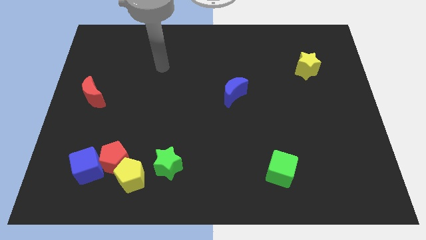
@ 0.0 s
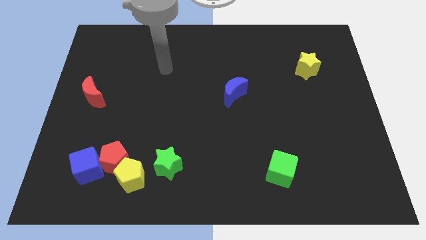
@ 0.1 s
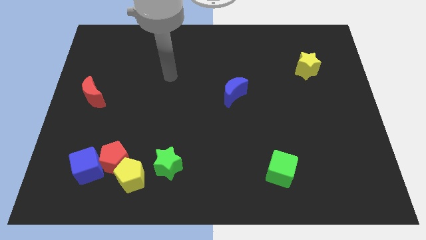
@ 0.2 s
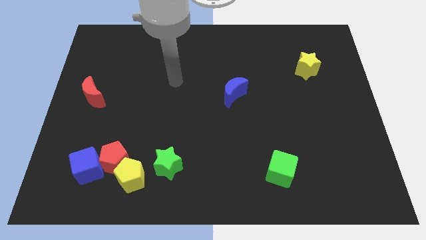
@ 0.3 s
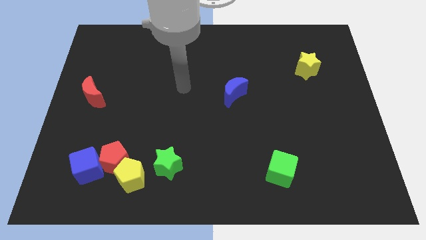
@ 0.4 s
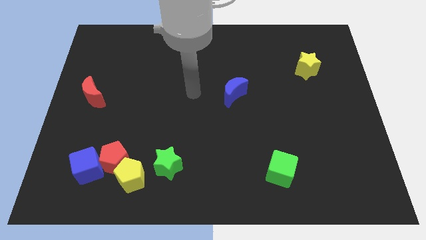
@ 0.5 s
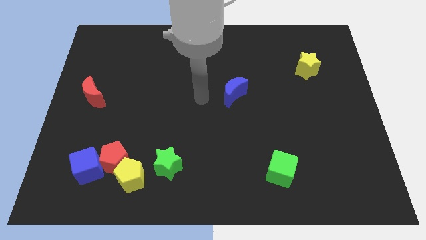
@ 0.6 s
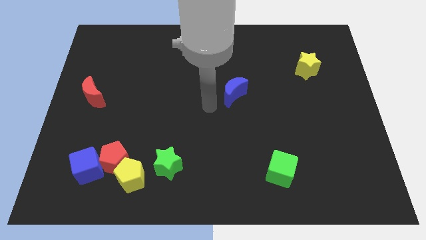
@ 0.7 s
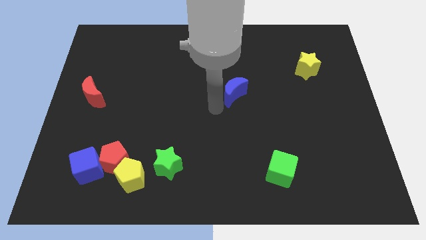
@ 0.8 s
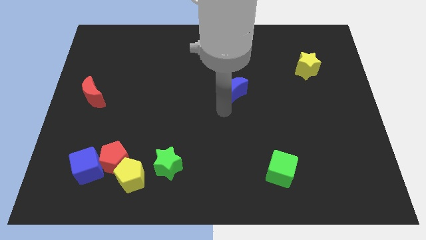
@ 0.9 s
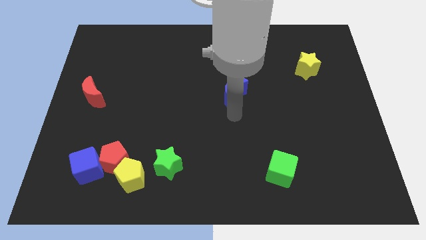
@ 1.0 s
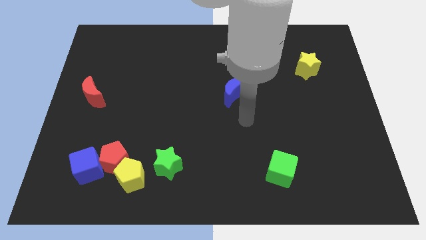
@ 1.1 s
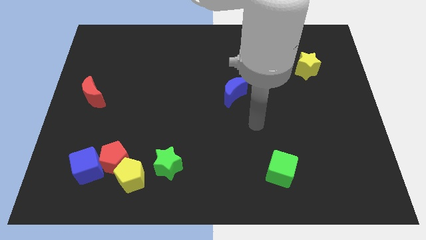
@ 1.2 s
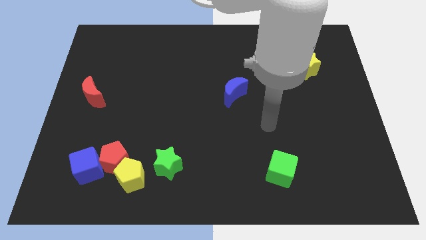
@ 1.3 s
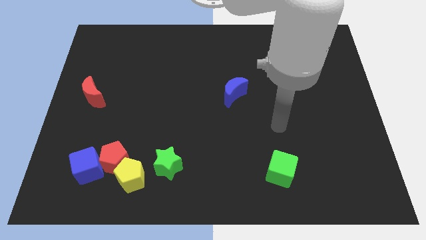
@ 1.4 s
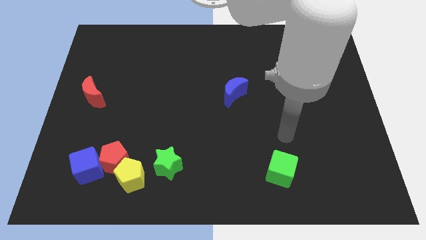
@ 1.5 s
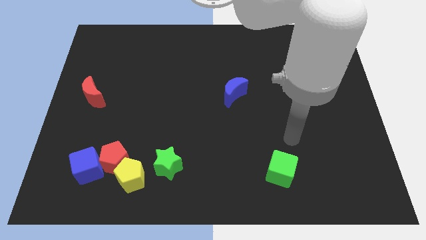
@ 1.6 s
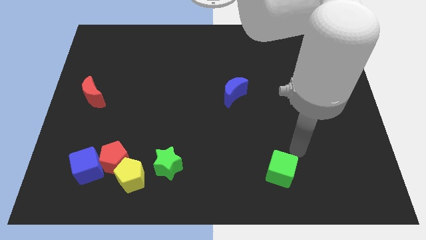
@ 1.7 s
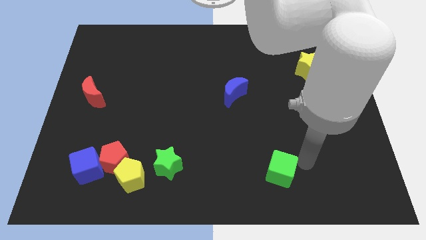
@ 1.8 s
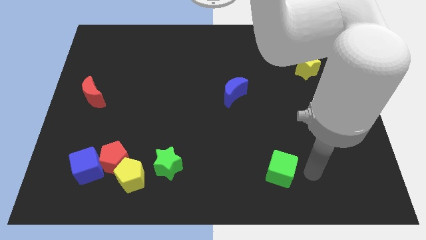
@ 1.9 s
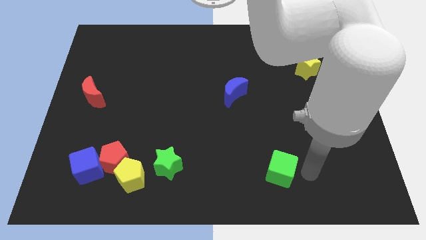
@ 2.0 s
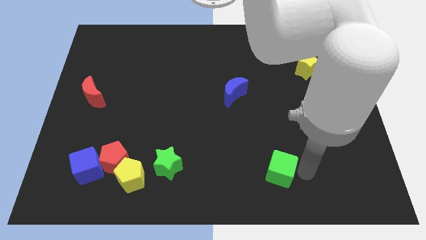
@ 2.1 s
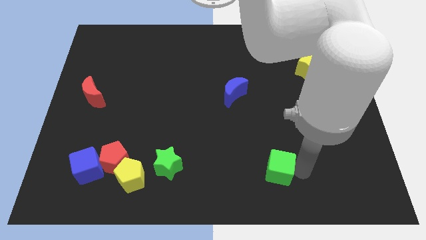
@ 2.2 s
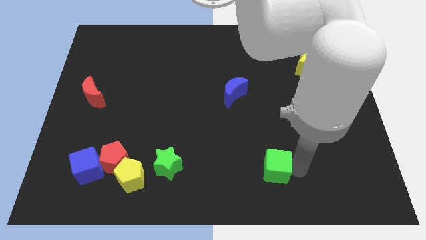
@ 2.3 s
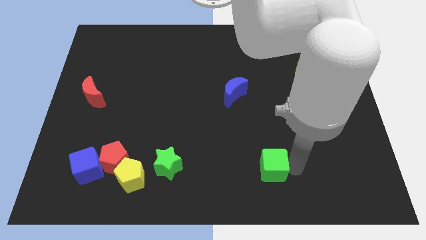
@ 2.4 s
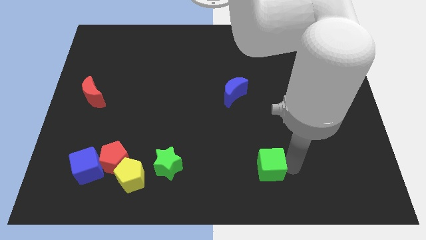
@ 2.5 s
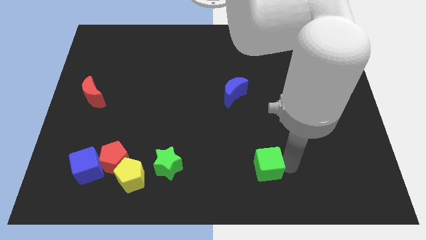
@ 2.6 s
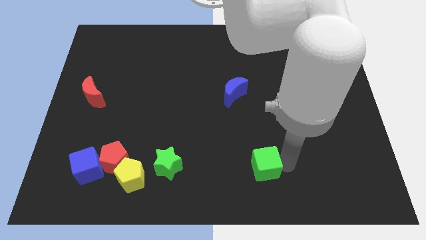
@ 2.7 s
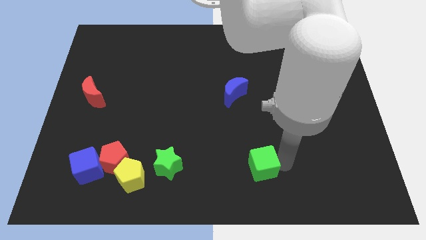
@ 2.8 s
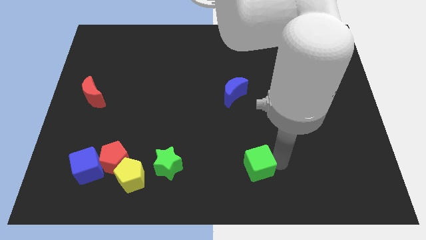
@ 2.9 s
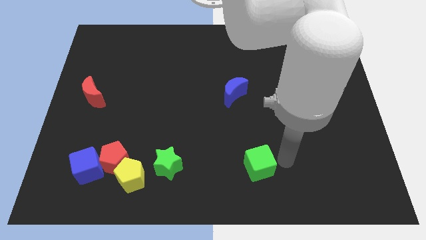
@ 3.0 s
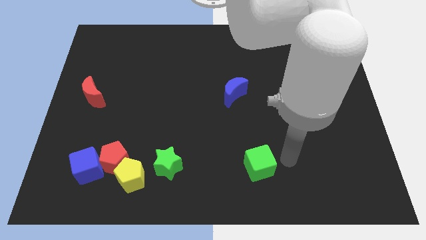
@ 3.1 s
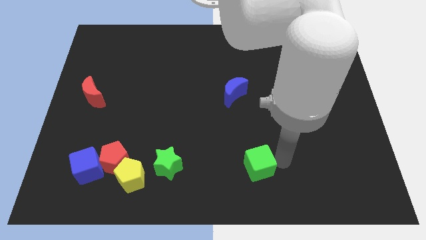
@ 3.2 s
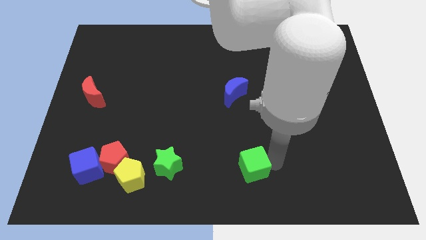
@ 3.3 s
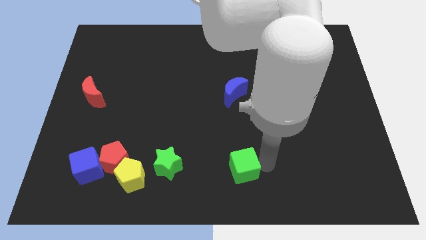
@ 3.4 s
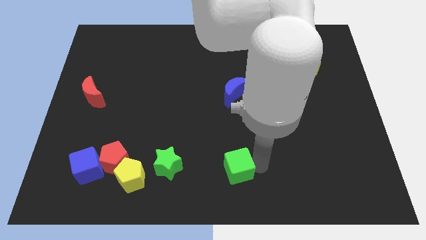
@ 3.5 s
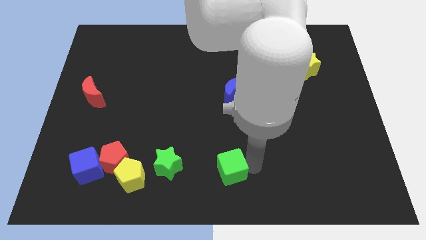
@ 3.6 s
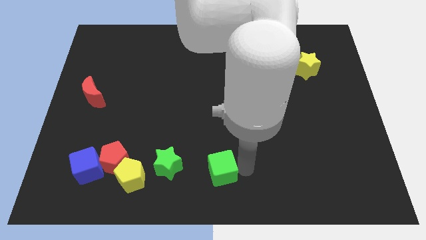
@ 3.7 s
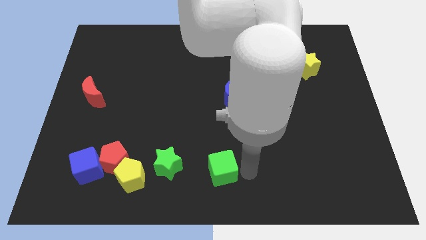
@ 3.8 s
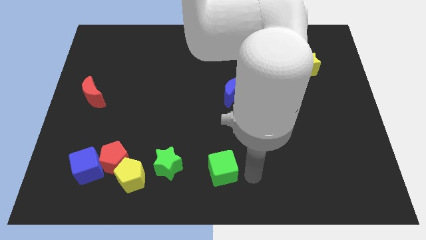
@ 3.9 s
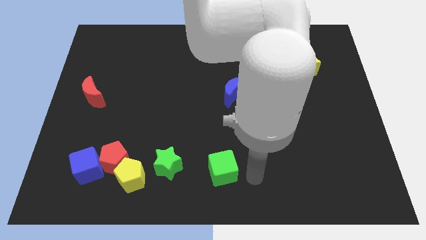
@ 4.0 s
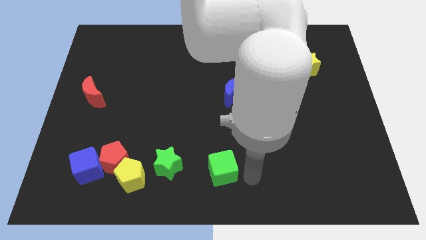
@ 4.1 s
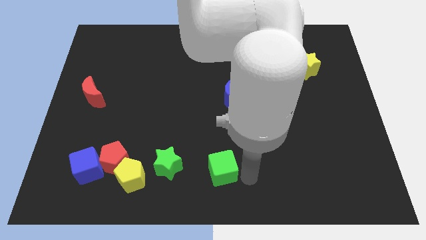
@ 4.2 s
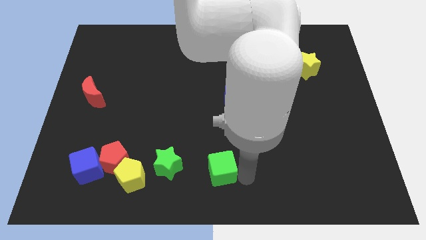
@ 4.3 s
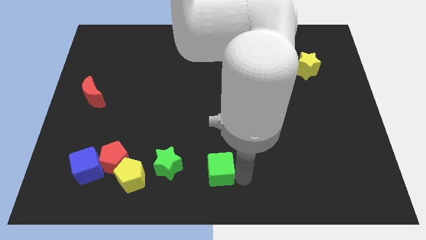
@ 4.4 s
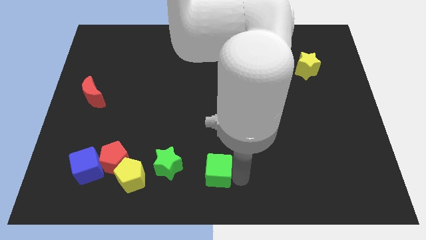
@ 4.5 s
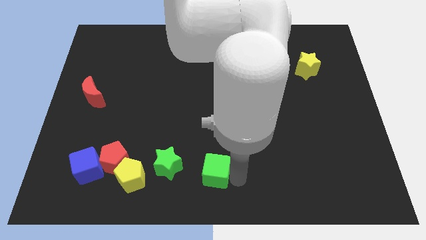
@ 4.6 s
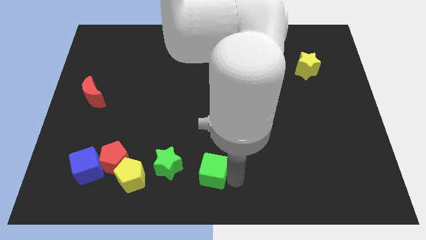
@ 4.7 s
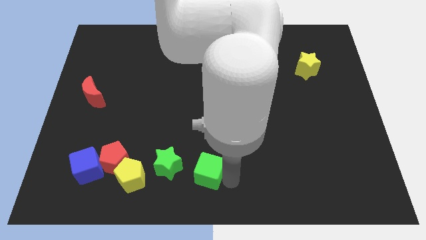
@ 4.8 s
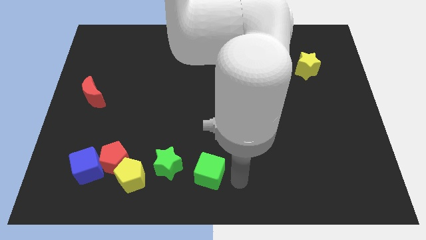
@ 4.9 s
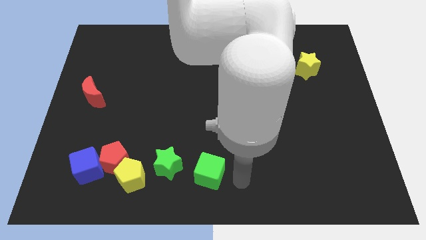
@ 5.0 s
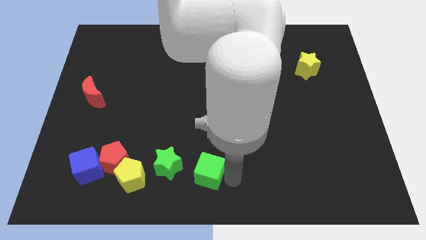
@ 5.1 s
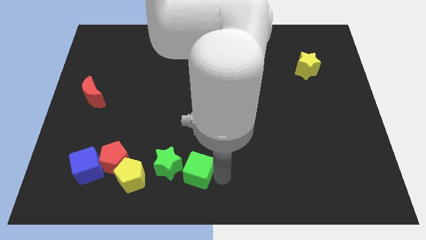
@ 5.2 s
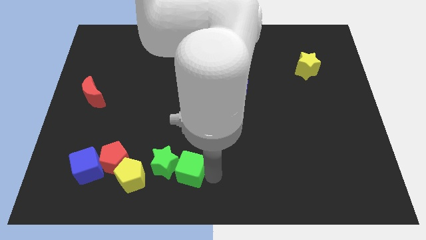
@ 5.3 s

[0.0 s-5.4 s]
move the green cube towards the green star

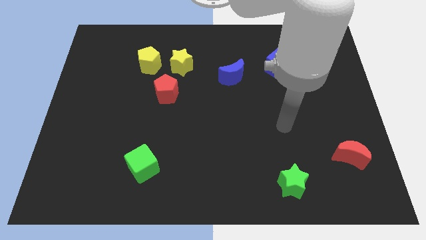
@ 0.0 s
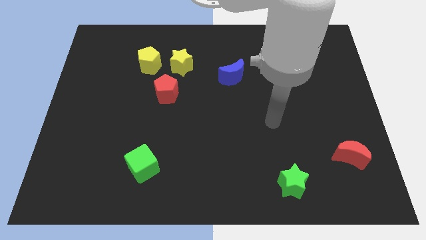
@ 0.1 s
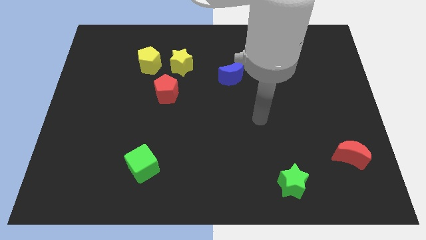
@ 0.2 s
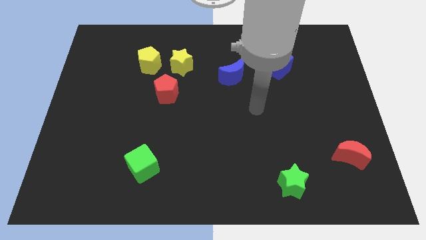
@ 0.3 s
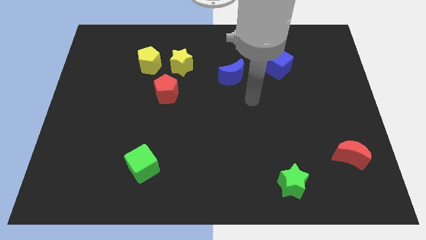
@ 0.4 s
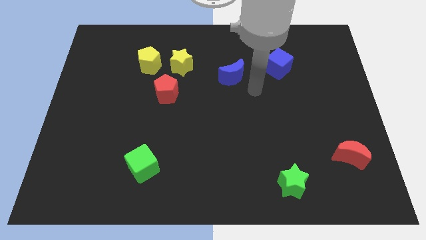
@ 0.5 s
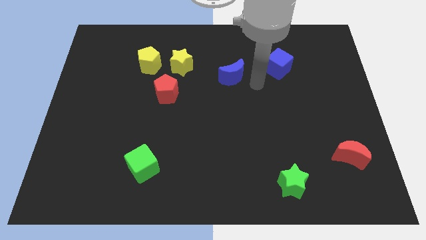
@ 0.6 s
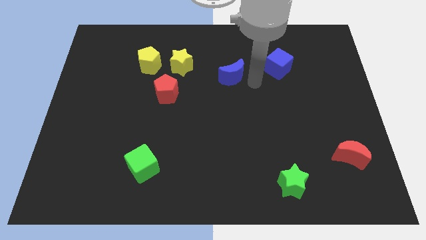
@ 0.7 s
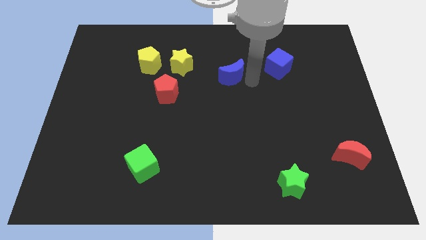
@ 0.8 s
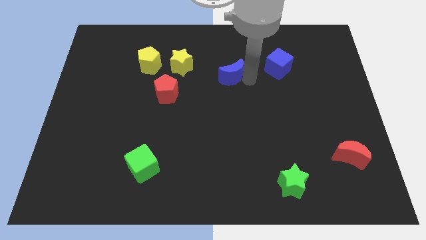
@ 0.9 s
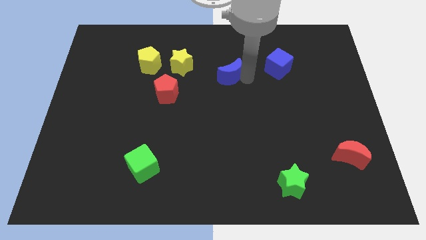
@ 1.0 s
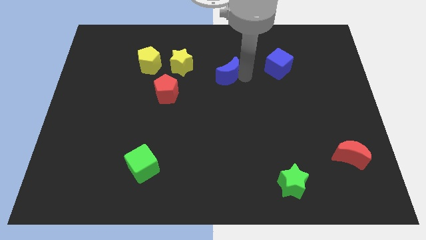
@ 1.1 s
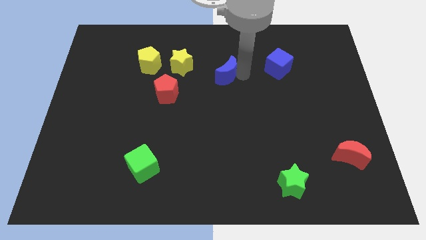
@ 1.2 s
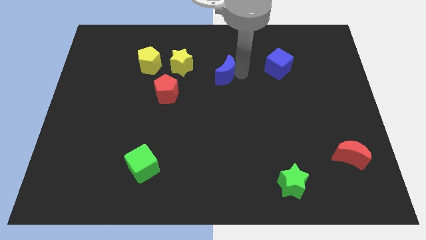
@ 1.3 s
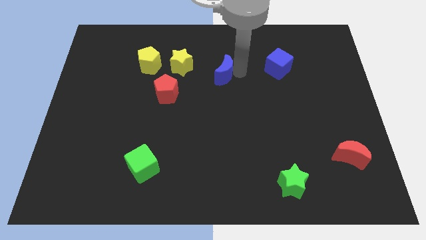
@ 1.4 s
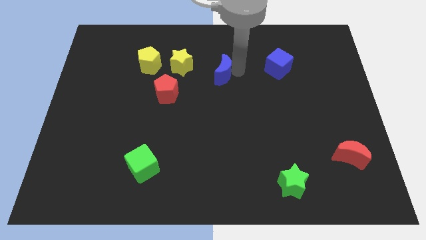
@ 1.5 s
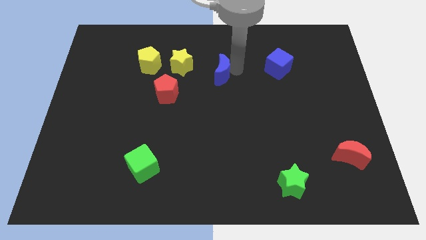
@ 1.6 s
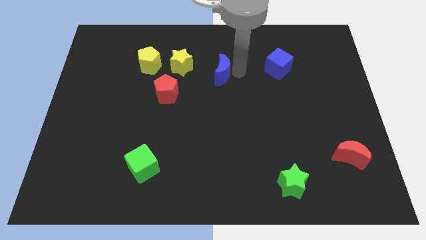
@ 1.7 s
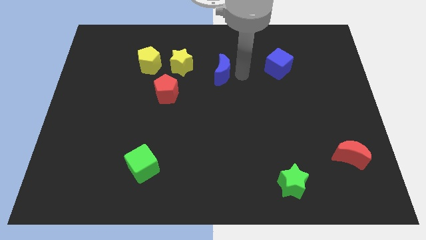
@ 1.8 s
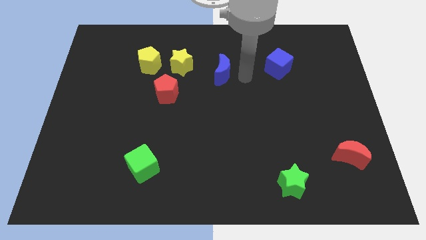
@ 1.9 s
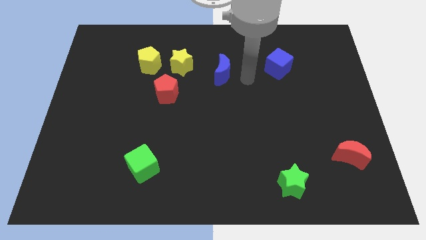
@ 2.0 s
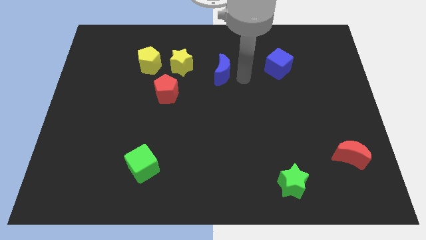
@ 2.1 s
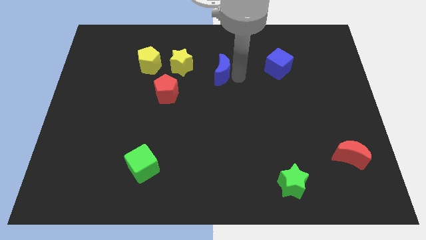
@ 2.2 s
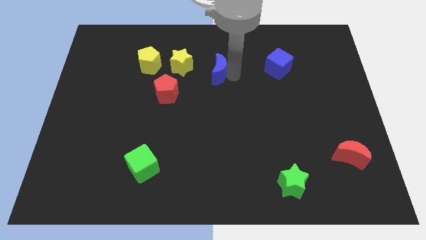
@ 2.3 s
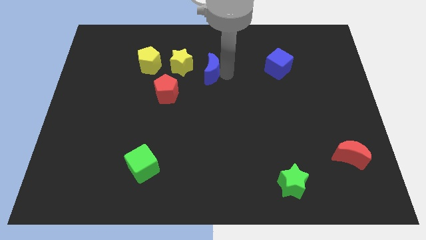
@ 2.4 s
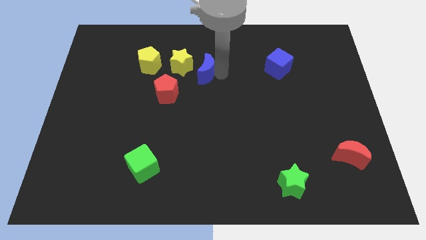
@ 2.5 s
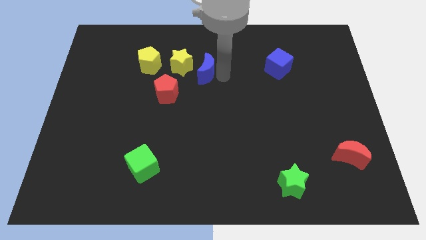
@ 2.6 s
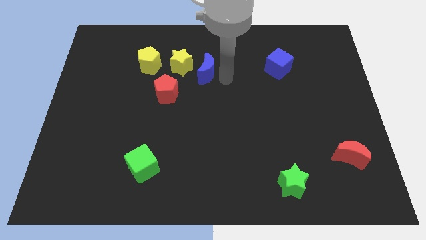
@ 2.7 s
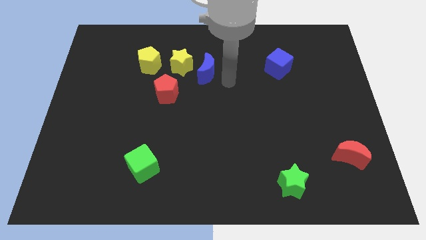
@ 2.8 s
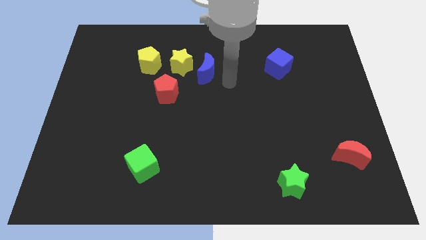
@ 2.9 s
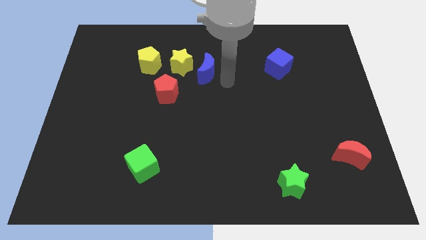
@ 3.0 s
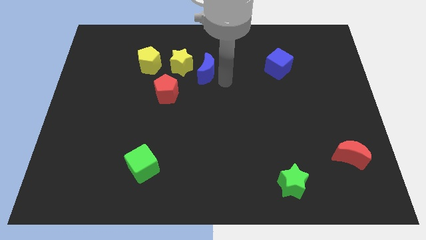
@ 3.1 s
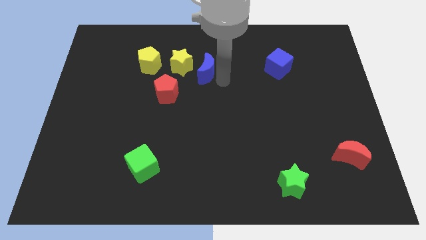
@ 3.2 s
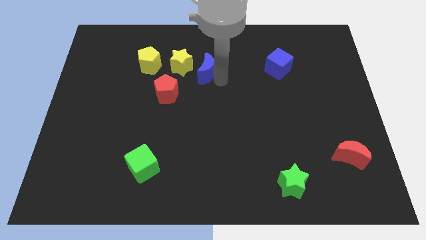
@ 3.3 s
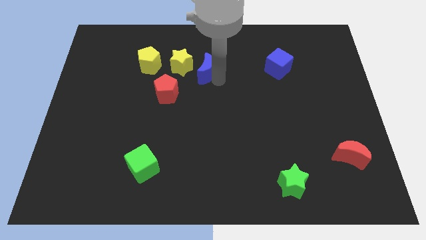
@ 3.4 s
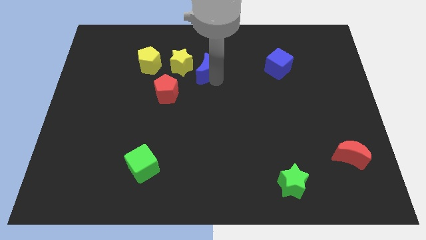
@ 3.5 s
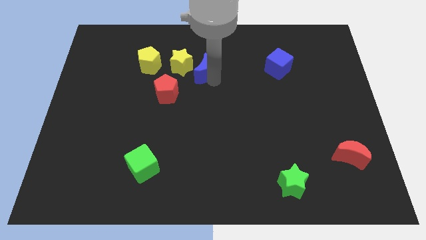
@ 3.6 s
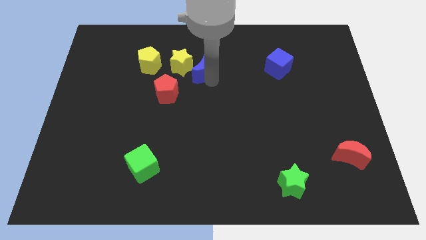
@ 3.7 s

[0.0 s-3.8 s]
put the blue moon to the yellow star
